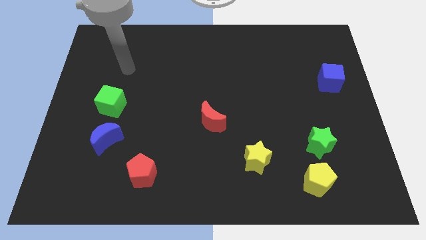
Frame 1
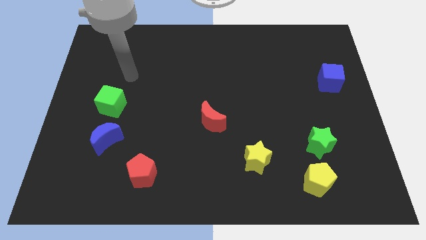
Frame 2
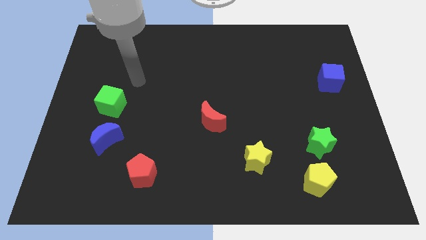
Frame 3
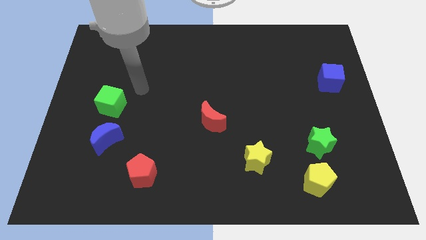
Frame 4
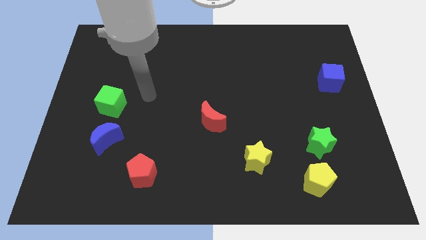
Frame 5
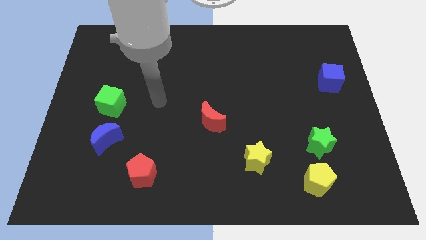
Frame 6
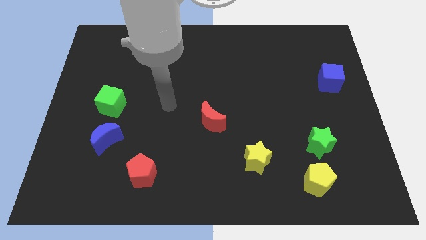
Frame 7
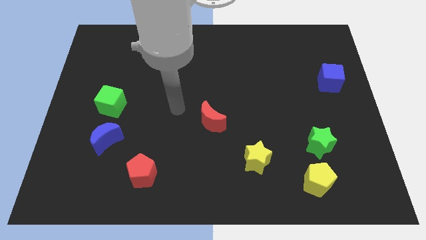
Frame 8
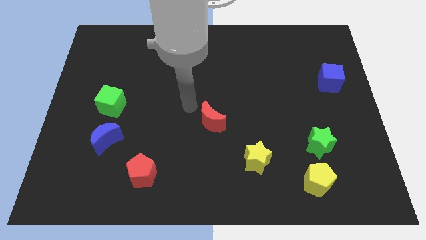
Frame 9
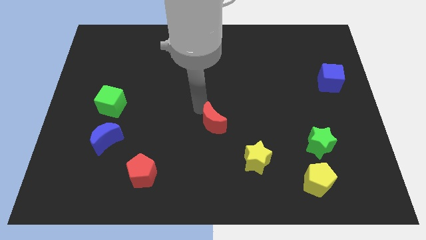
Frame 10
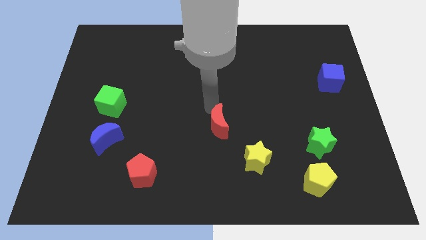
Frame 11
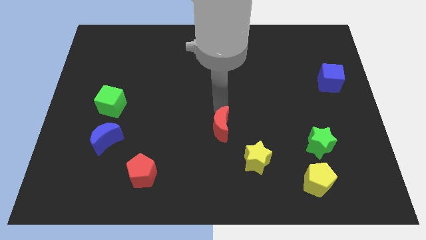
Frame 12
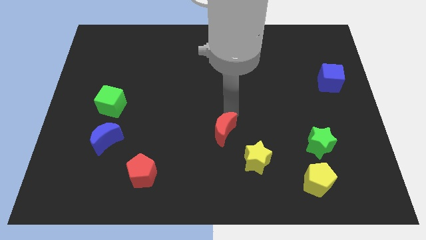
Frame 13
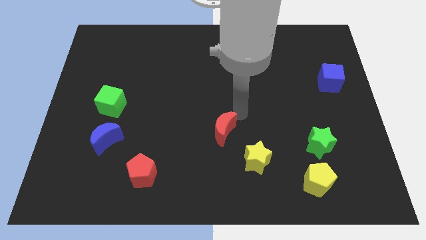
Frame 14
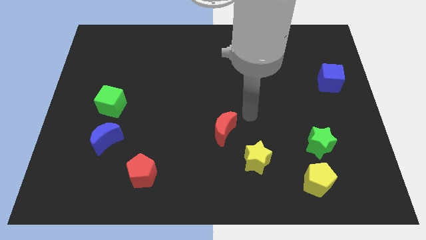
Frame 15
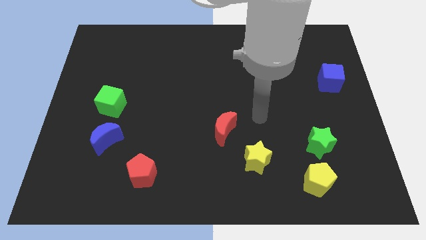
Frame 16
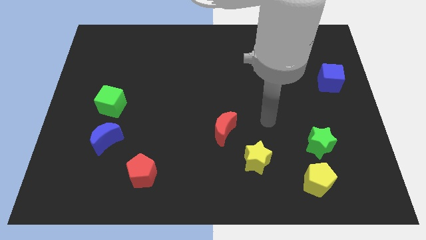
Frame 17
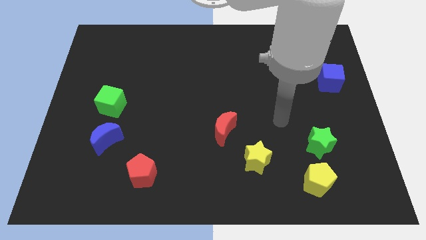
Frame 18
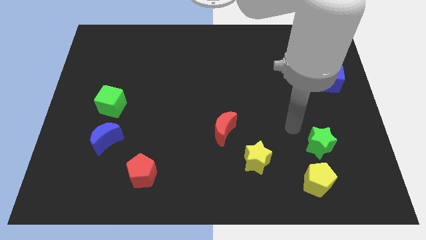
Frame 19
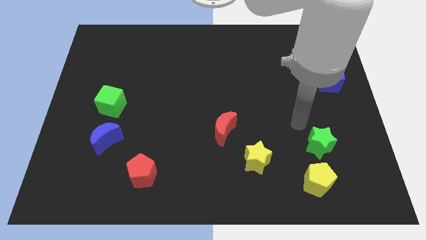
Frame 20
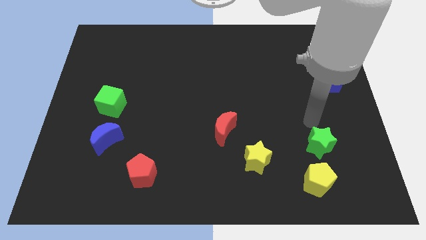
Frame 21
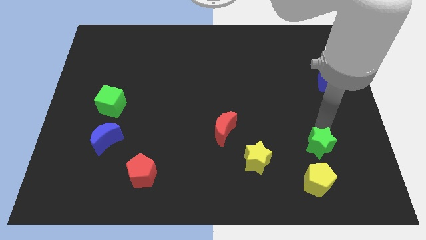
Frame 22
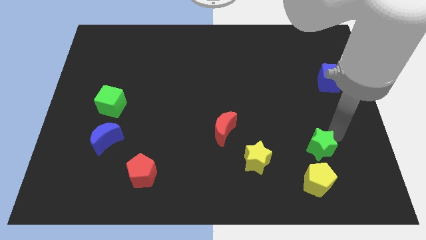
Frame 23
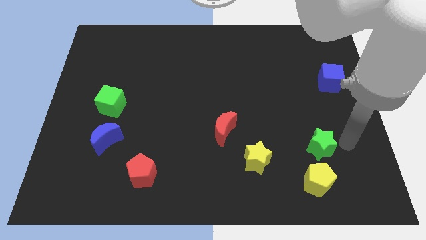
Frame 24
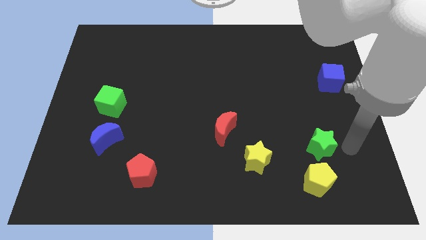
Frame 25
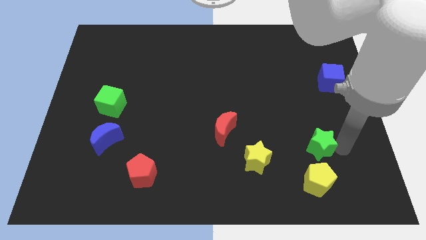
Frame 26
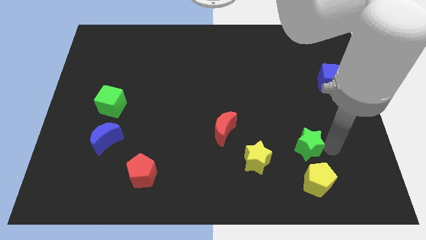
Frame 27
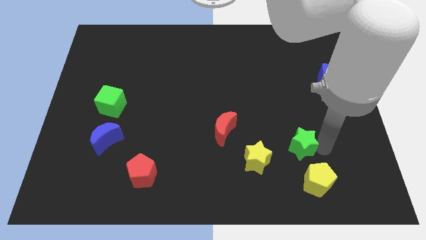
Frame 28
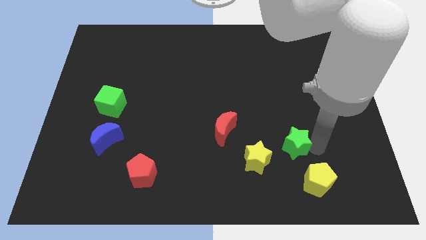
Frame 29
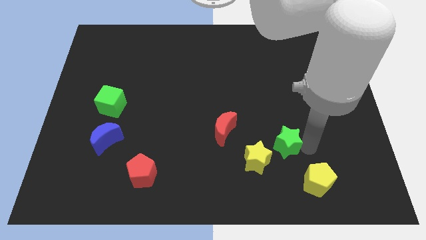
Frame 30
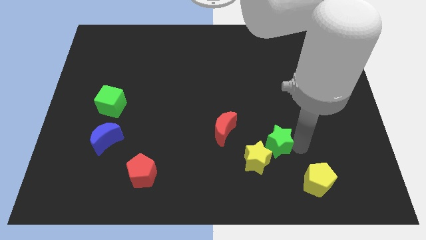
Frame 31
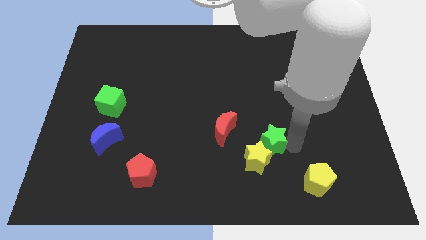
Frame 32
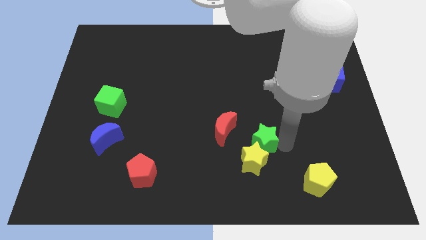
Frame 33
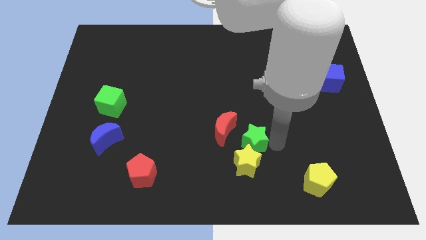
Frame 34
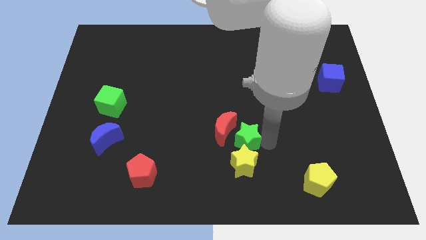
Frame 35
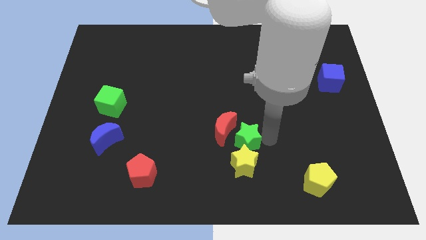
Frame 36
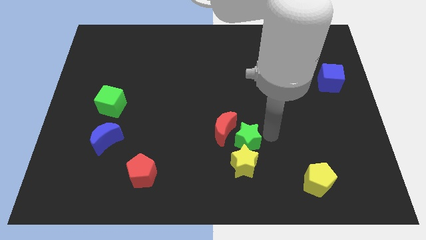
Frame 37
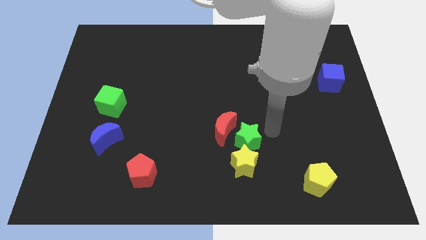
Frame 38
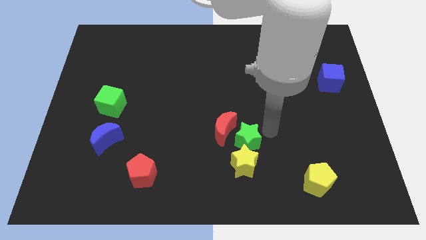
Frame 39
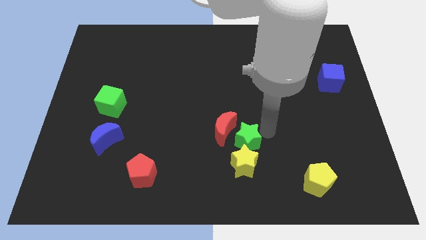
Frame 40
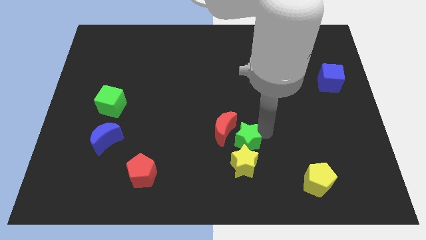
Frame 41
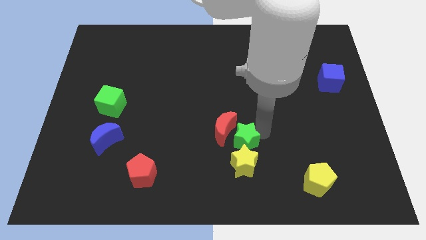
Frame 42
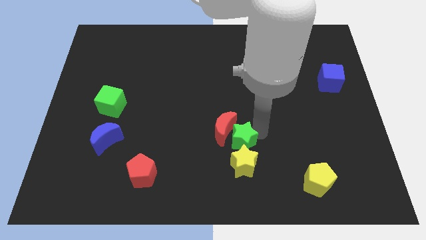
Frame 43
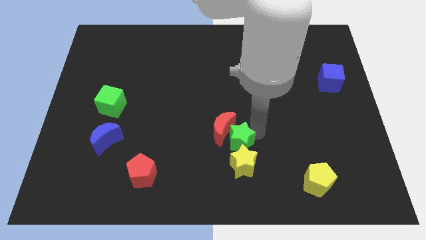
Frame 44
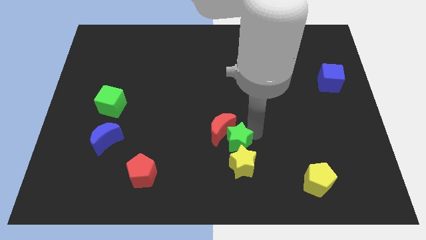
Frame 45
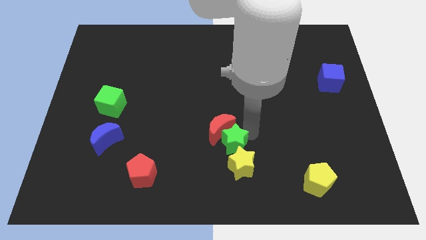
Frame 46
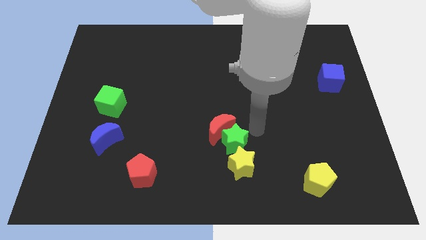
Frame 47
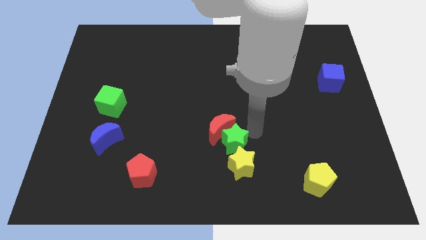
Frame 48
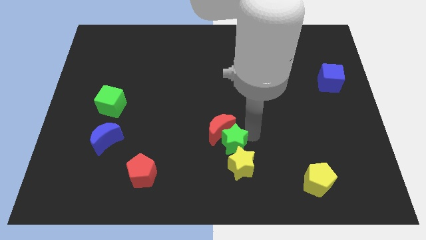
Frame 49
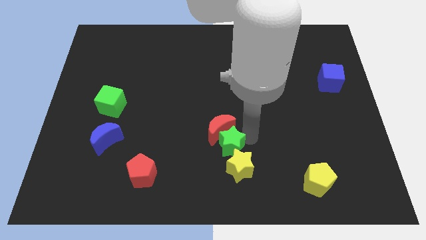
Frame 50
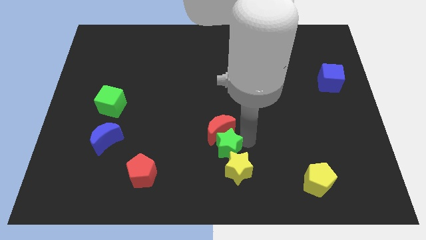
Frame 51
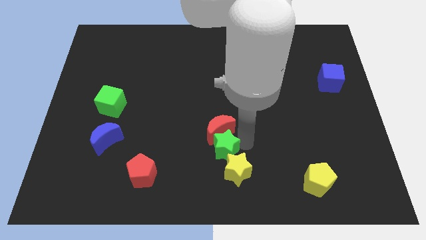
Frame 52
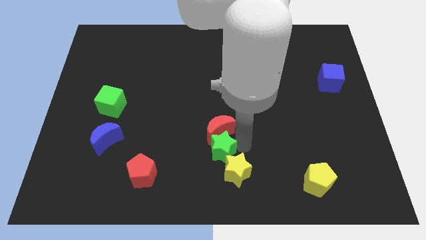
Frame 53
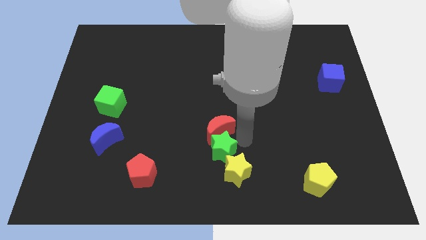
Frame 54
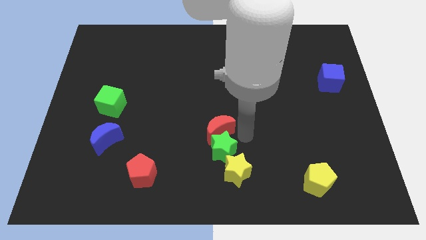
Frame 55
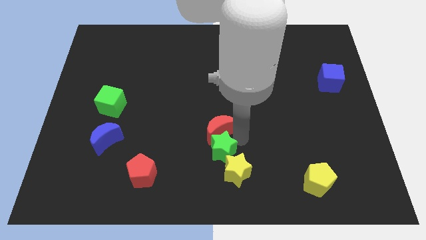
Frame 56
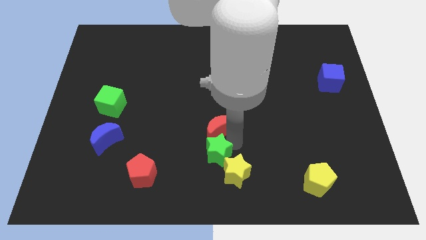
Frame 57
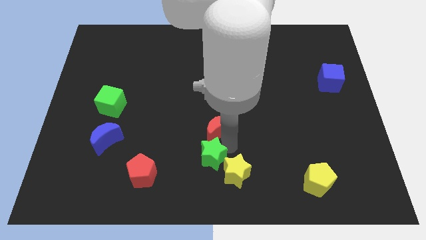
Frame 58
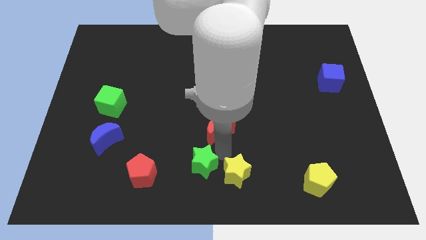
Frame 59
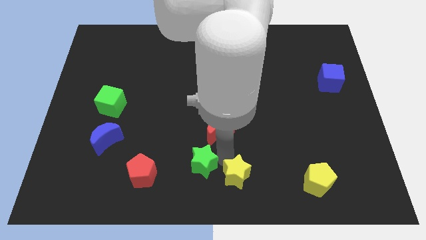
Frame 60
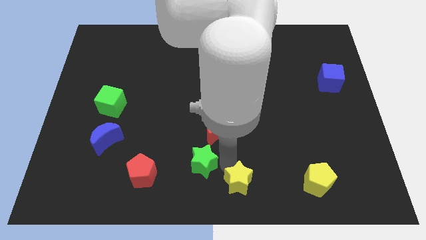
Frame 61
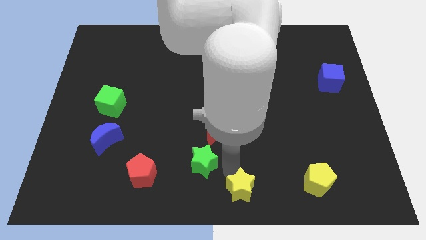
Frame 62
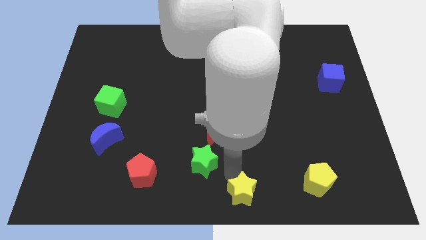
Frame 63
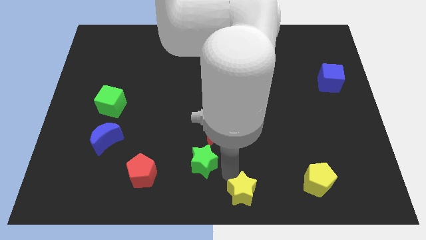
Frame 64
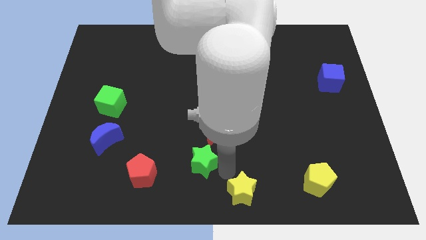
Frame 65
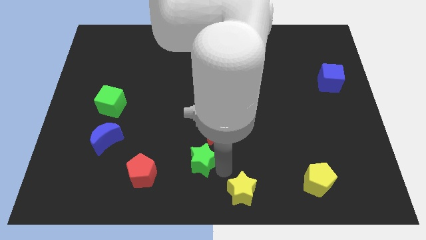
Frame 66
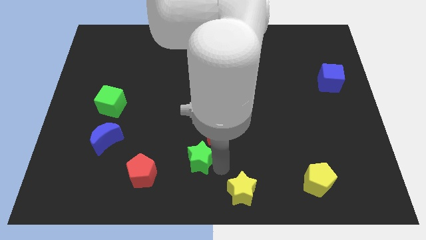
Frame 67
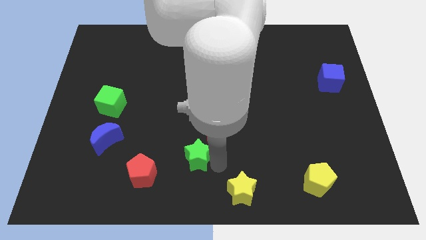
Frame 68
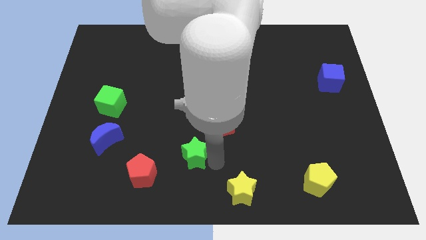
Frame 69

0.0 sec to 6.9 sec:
move the green star diagonally up and to the right of the red pentagon
